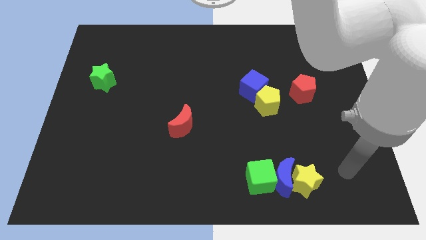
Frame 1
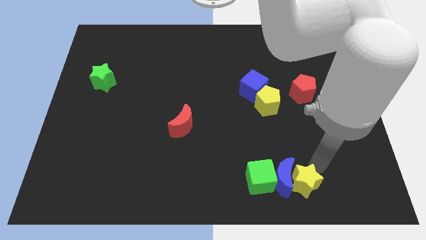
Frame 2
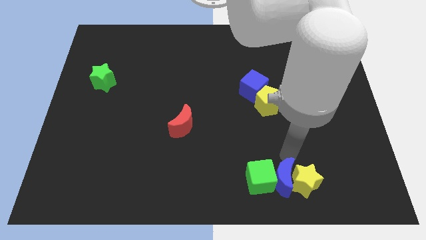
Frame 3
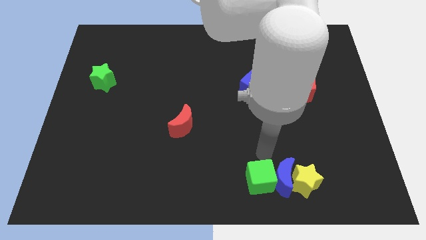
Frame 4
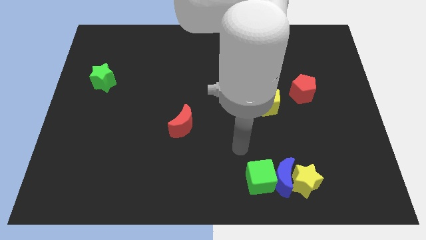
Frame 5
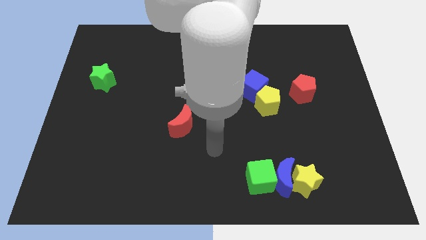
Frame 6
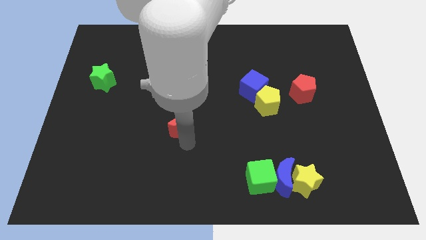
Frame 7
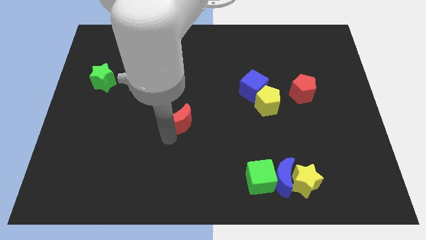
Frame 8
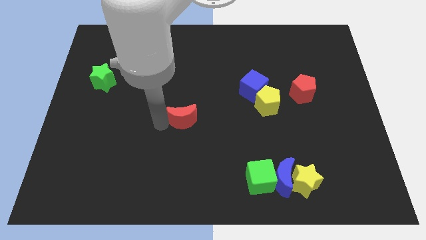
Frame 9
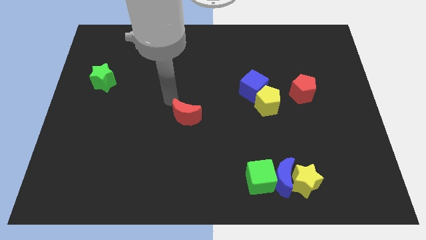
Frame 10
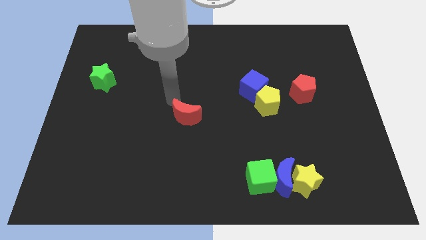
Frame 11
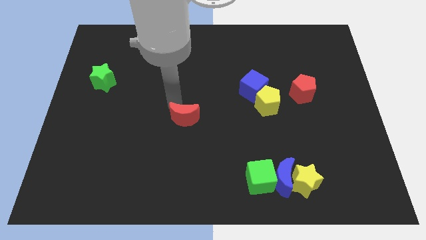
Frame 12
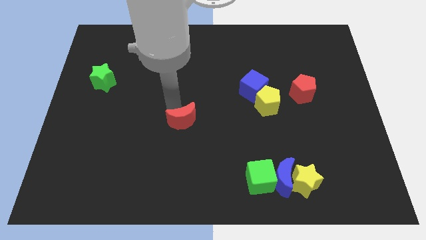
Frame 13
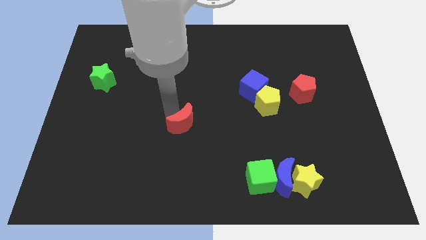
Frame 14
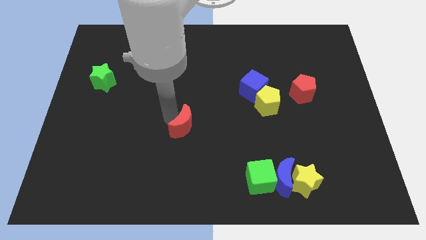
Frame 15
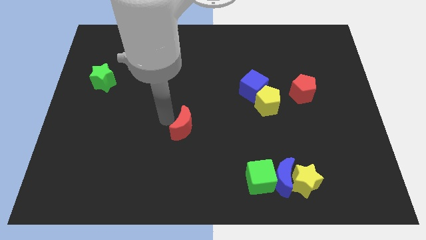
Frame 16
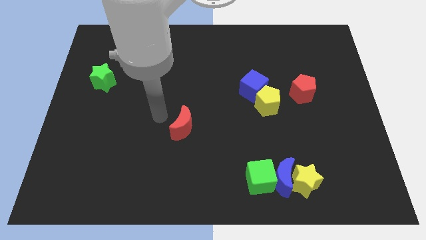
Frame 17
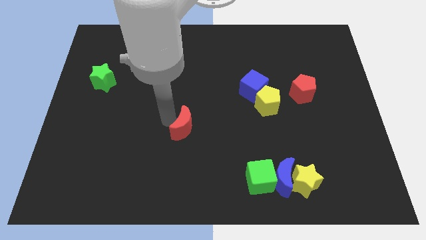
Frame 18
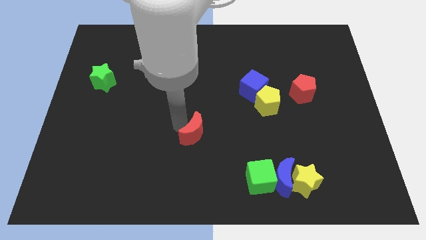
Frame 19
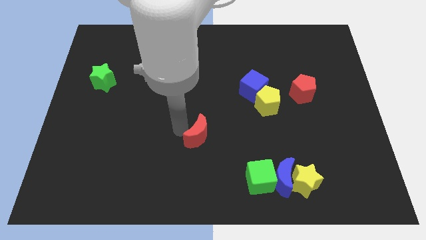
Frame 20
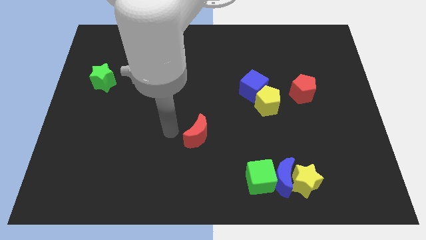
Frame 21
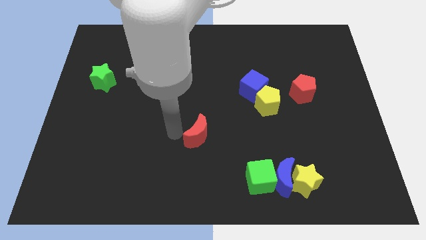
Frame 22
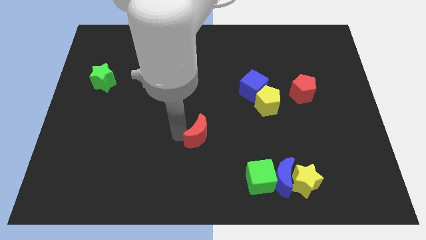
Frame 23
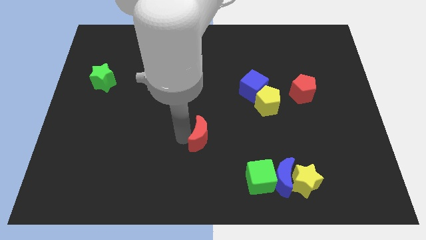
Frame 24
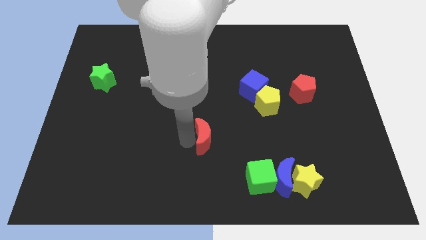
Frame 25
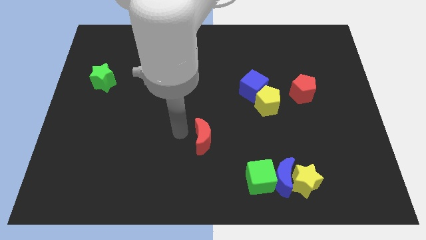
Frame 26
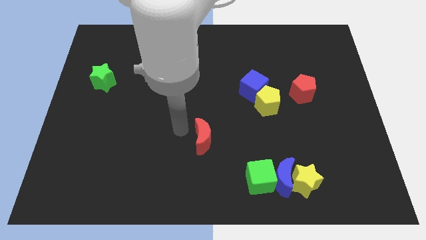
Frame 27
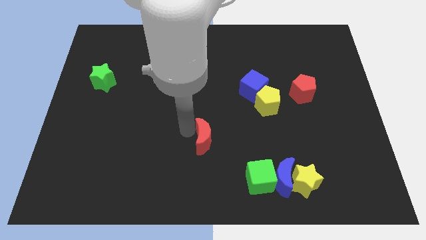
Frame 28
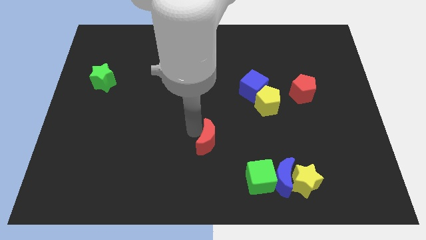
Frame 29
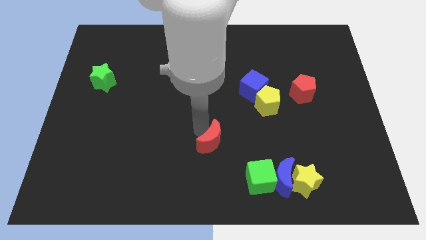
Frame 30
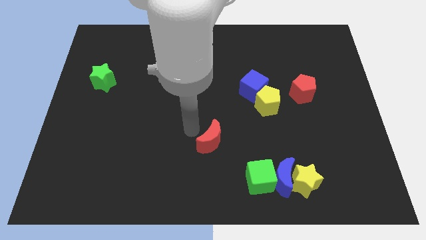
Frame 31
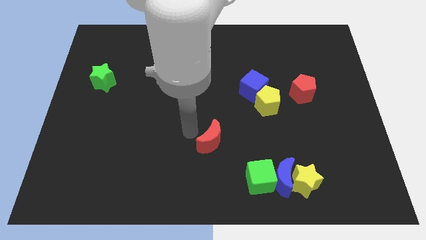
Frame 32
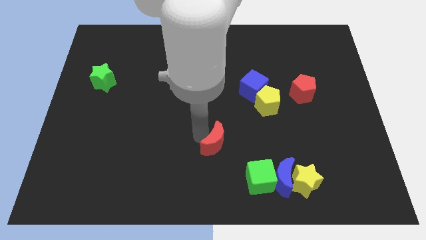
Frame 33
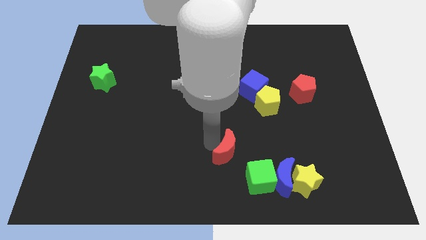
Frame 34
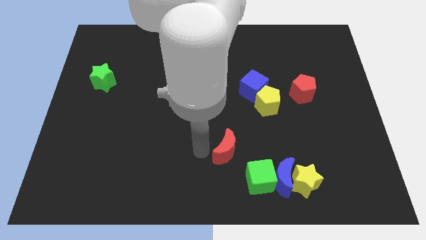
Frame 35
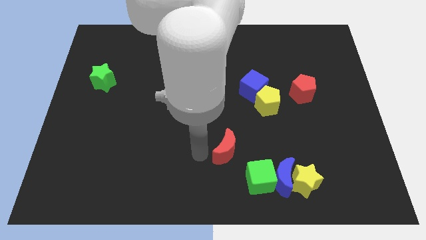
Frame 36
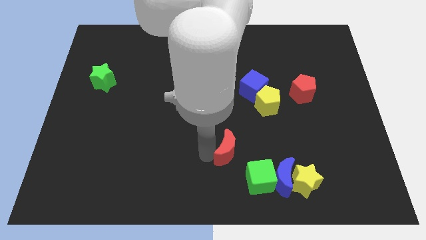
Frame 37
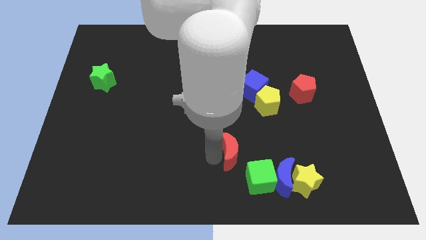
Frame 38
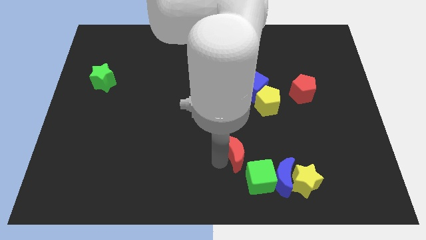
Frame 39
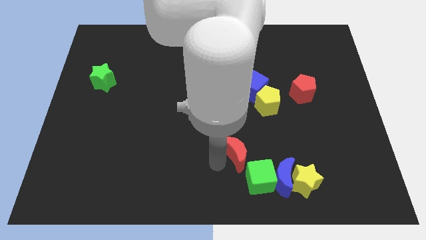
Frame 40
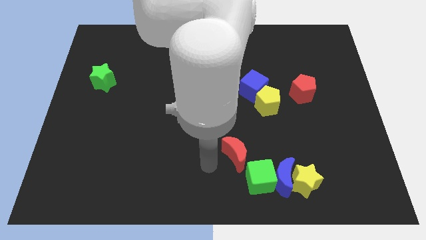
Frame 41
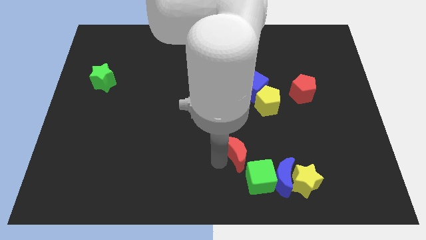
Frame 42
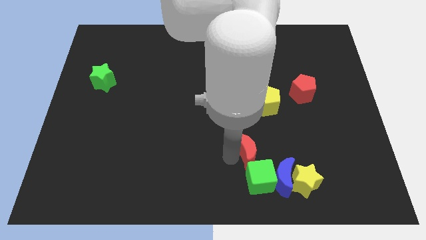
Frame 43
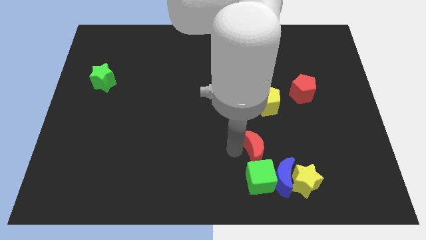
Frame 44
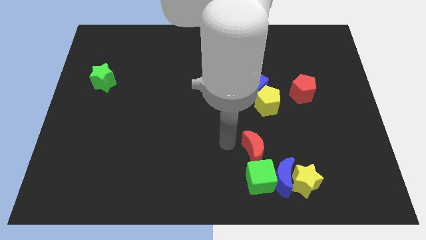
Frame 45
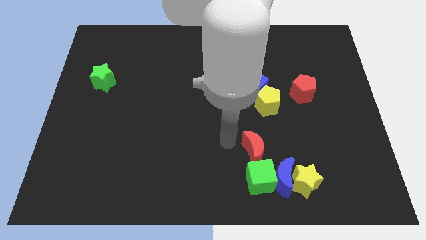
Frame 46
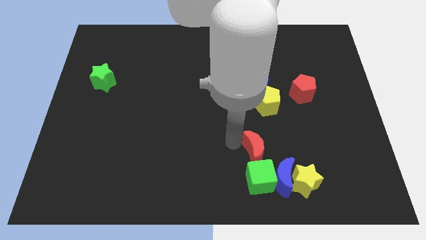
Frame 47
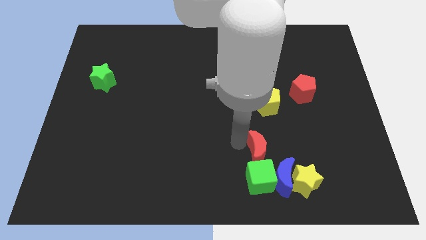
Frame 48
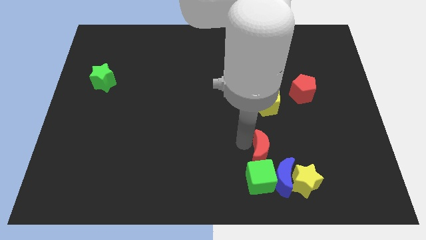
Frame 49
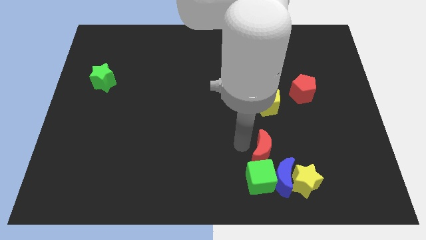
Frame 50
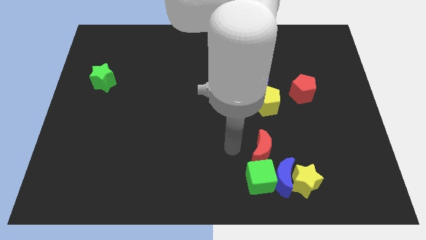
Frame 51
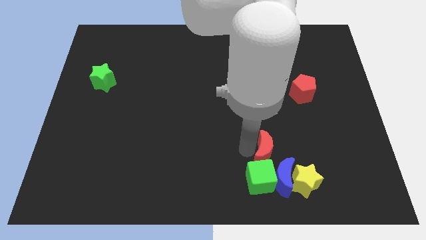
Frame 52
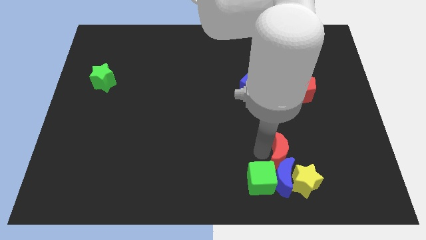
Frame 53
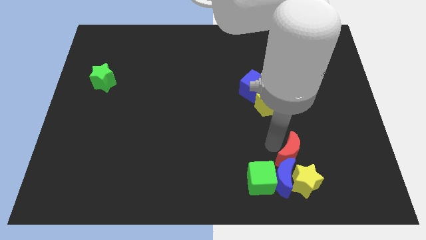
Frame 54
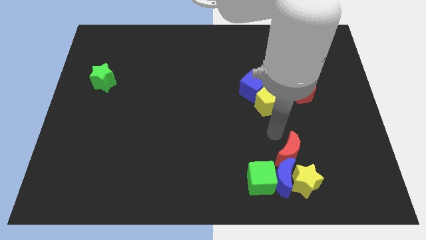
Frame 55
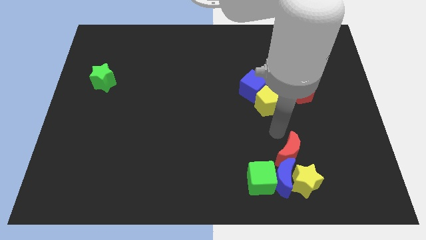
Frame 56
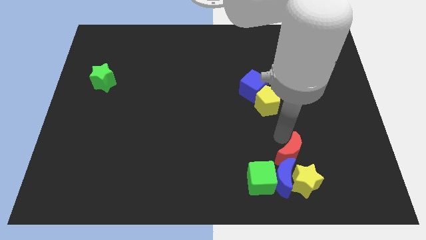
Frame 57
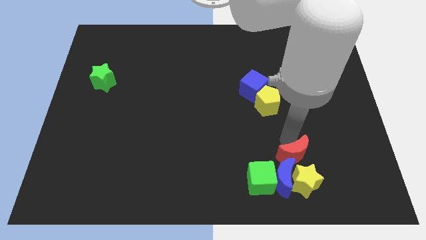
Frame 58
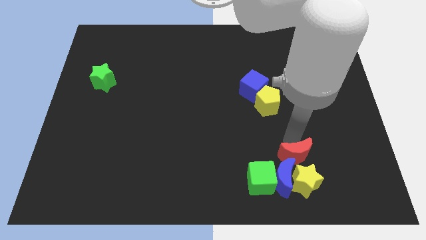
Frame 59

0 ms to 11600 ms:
put the red moon to the yellow star

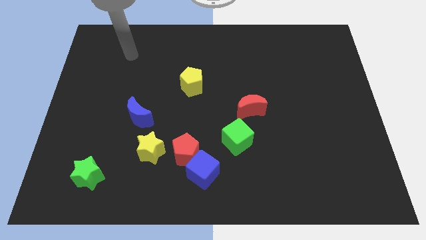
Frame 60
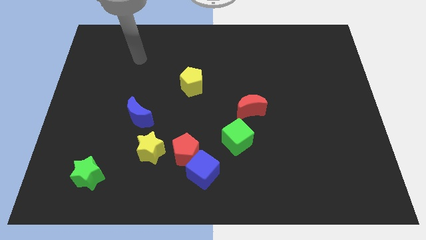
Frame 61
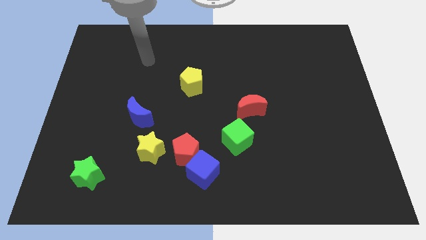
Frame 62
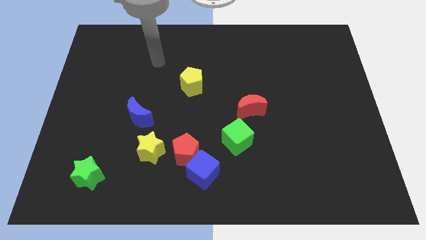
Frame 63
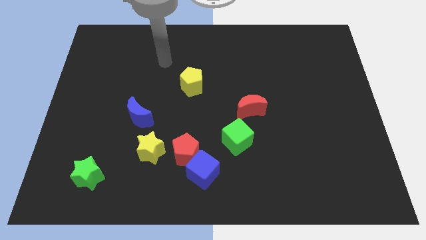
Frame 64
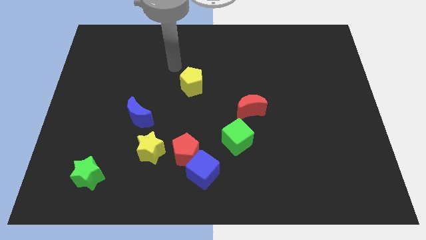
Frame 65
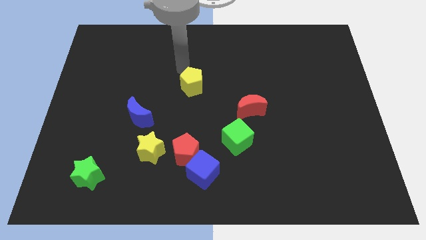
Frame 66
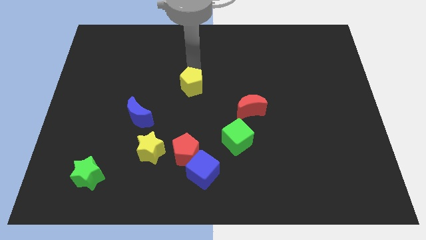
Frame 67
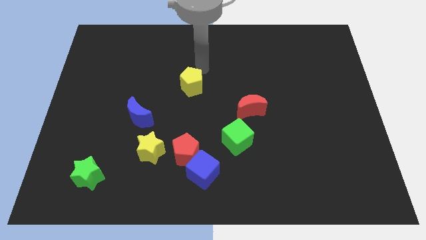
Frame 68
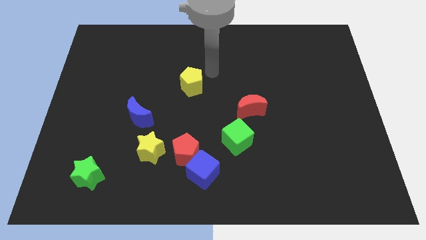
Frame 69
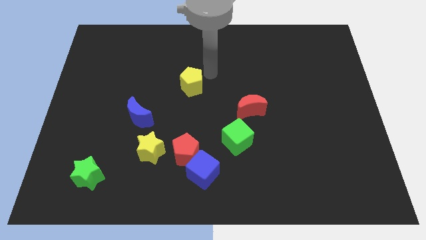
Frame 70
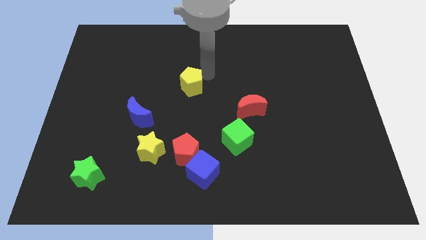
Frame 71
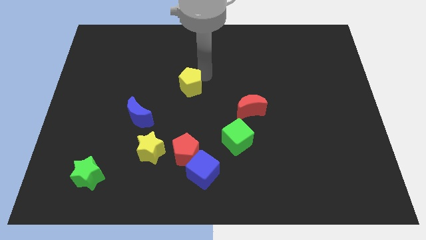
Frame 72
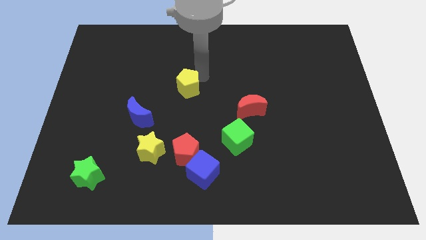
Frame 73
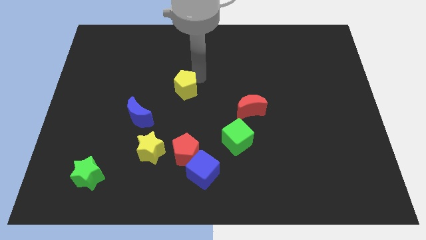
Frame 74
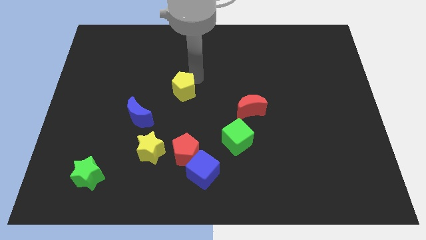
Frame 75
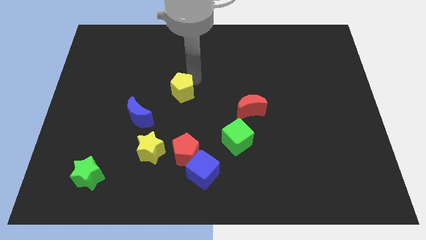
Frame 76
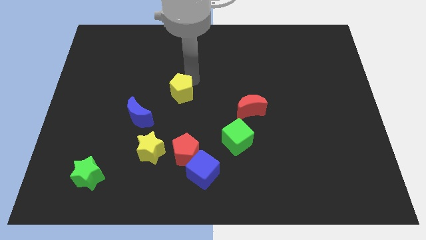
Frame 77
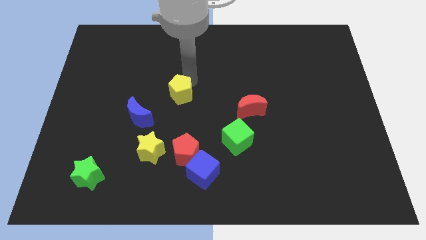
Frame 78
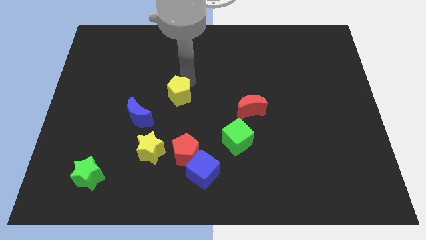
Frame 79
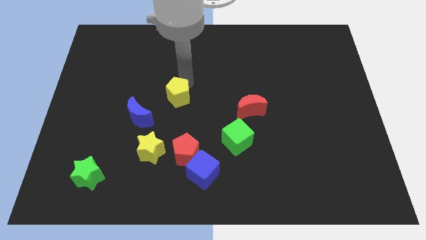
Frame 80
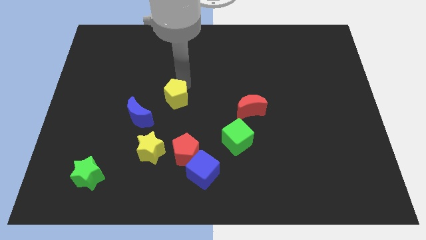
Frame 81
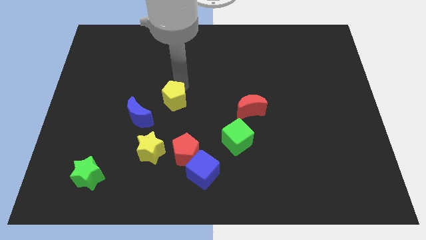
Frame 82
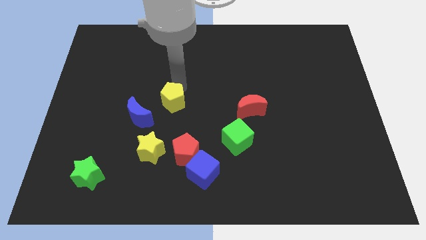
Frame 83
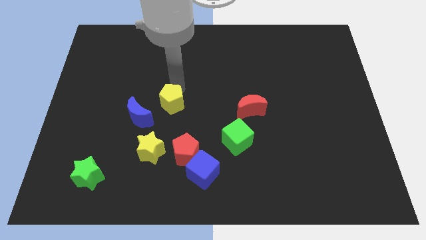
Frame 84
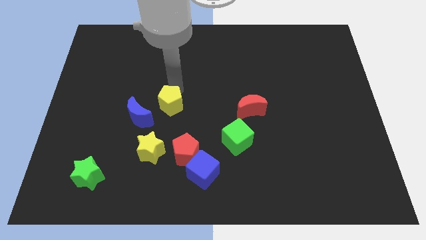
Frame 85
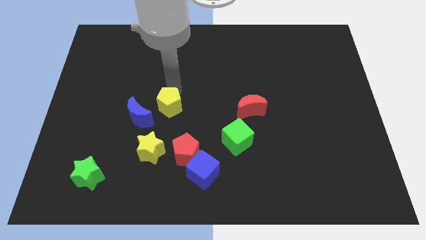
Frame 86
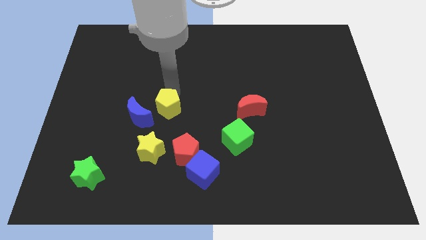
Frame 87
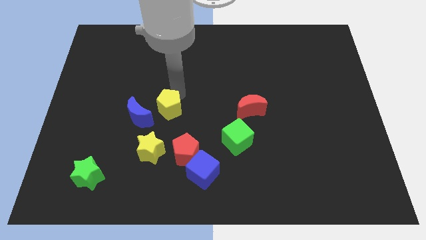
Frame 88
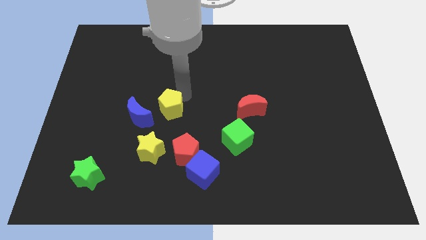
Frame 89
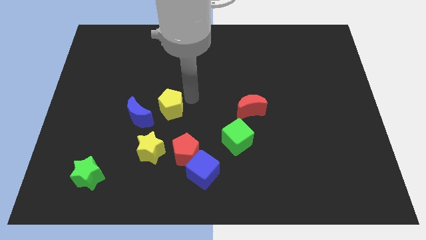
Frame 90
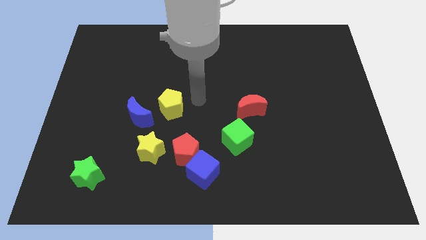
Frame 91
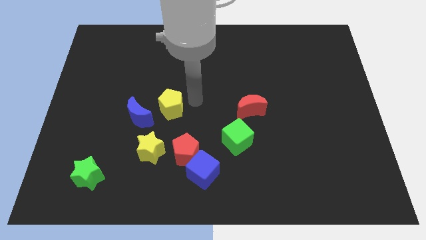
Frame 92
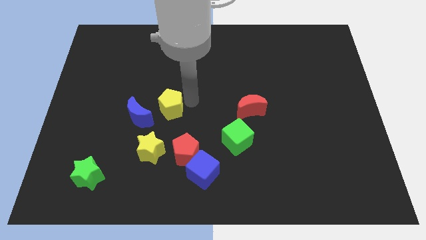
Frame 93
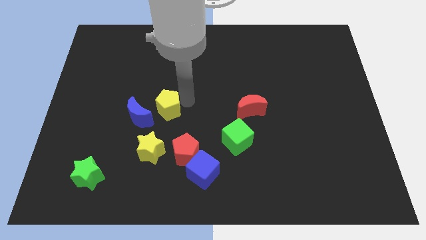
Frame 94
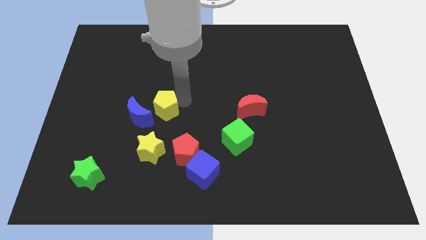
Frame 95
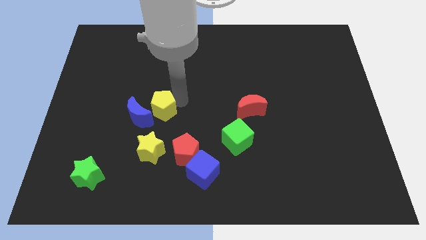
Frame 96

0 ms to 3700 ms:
push the yellow pentagon towards the blue moon
